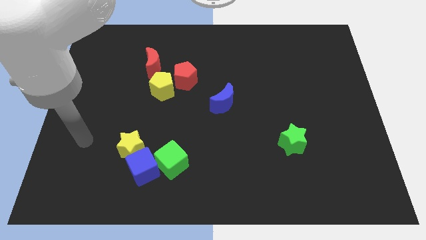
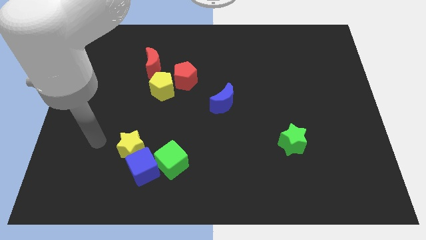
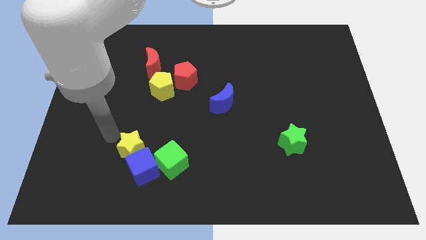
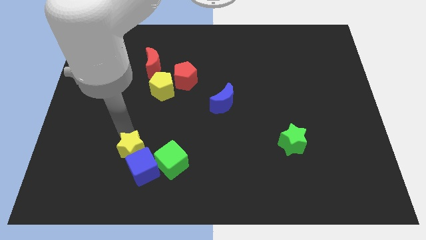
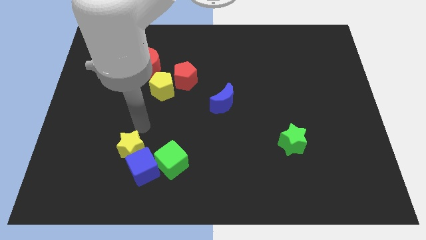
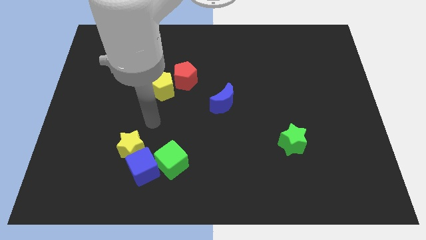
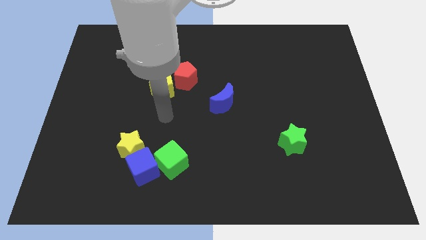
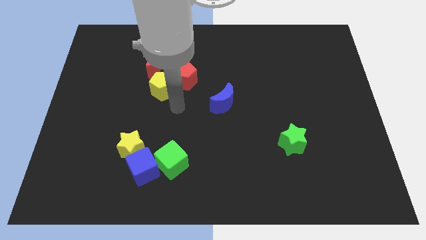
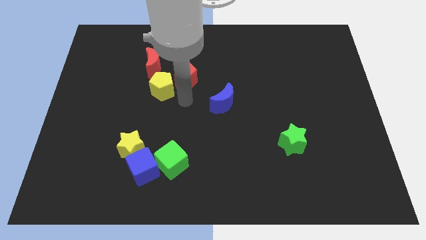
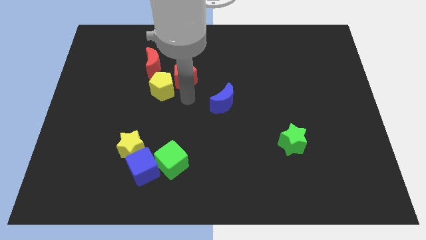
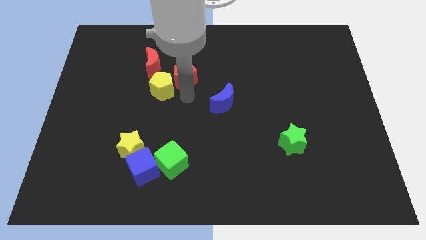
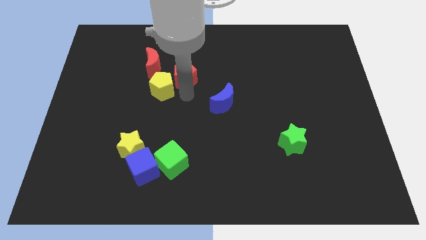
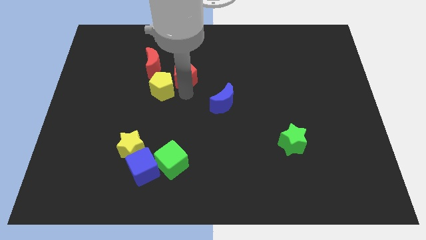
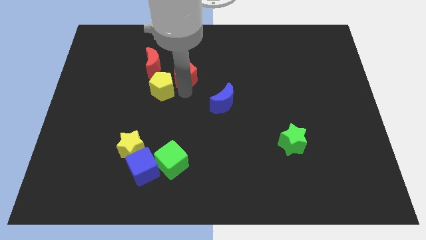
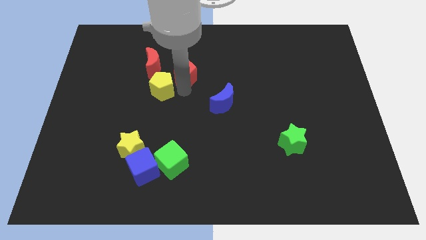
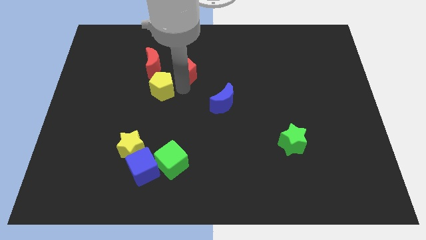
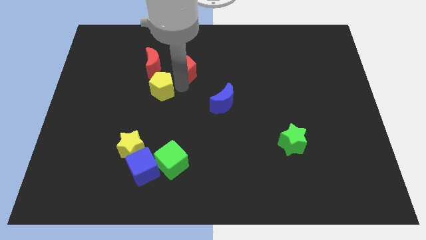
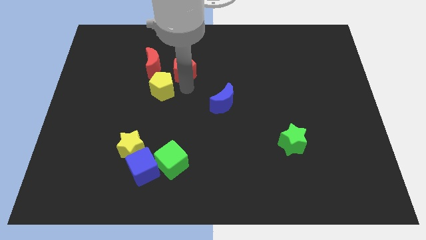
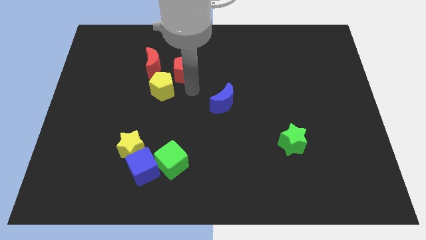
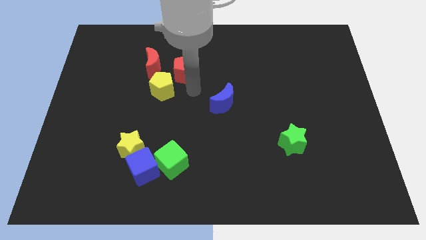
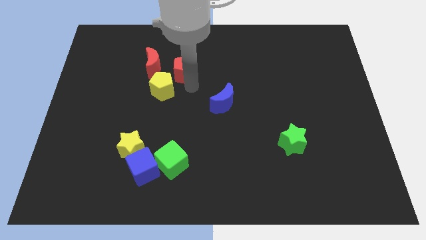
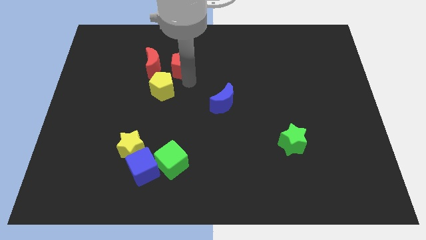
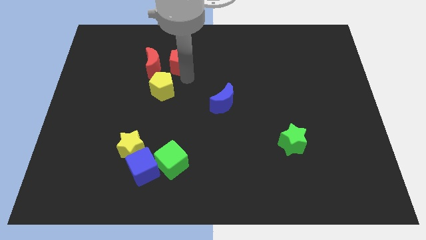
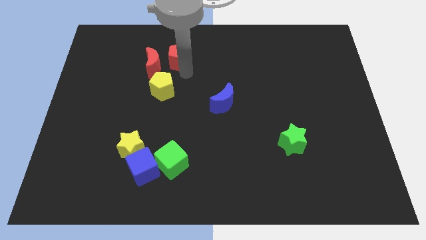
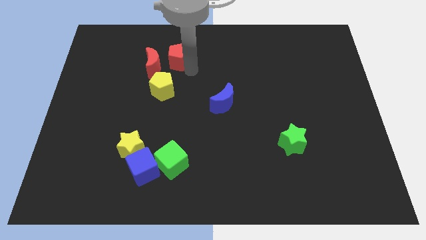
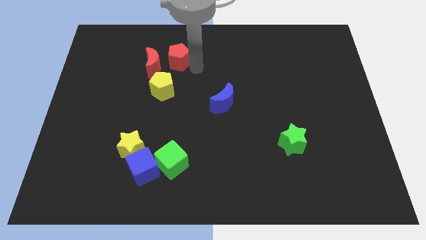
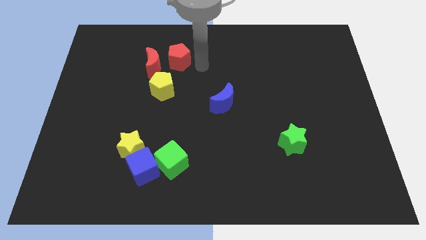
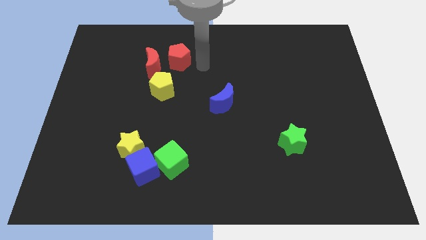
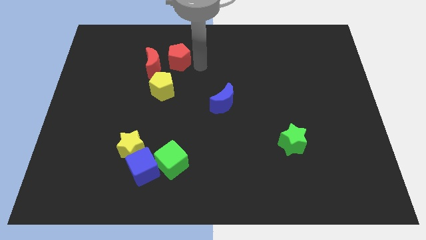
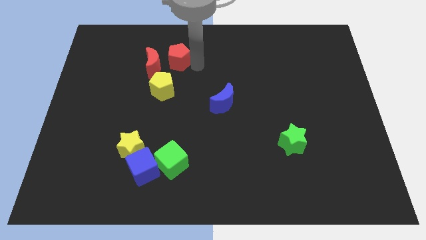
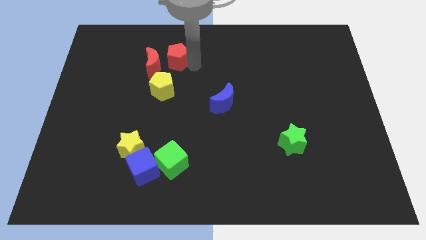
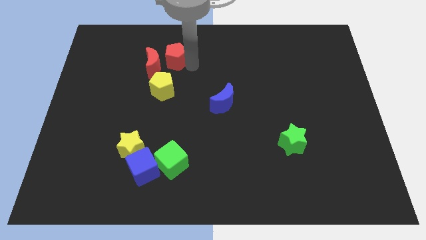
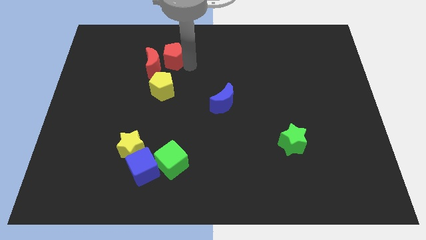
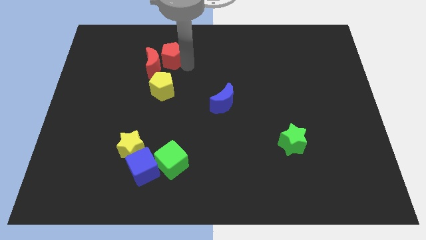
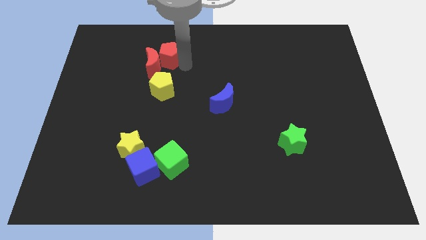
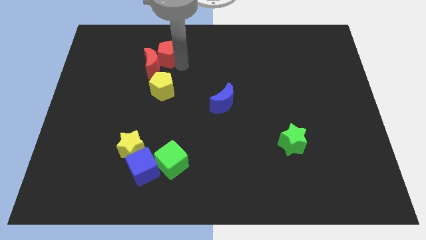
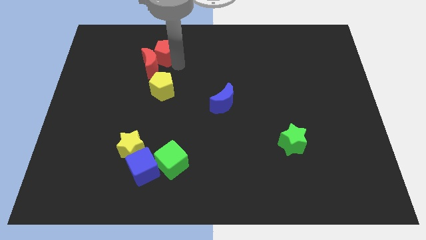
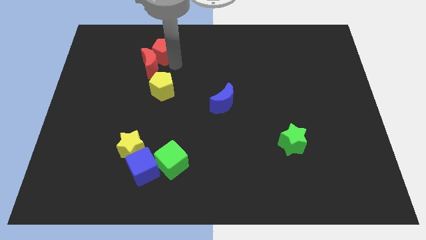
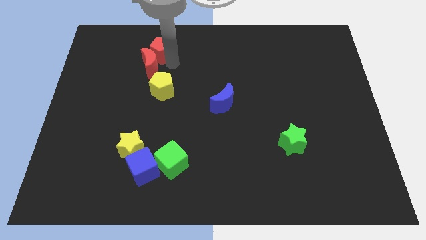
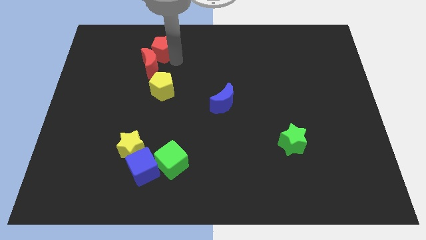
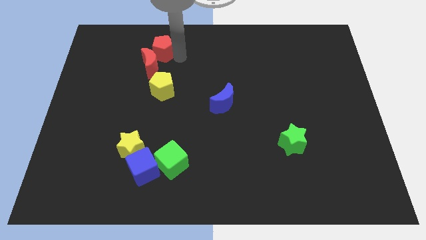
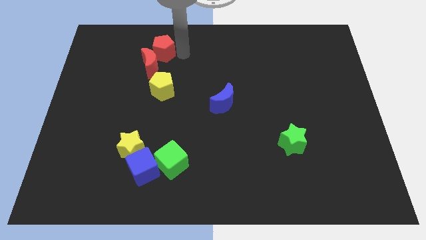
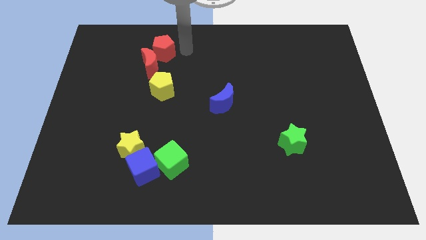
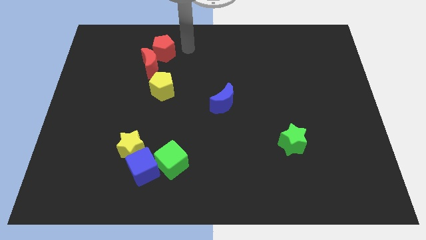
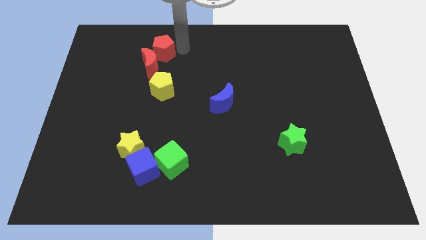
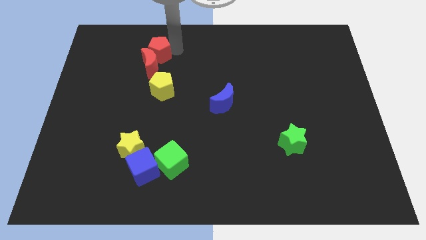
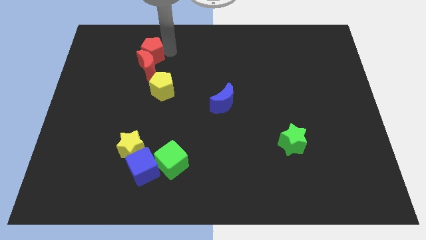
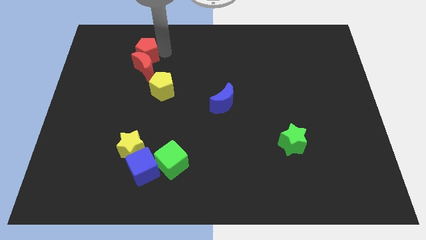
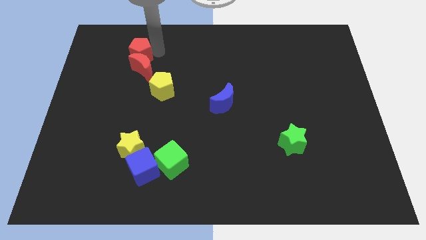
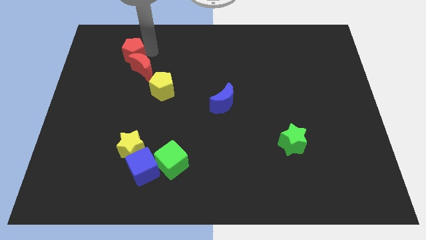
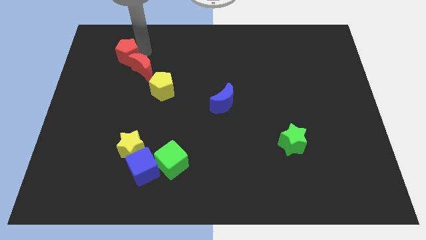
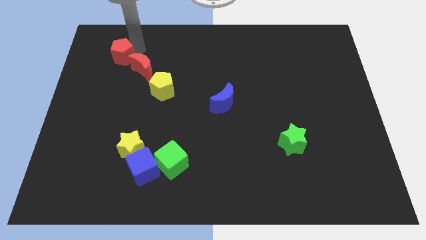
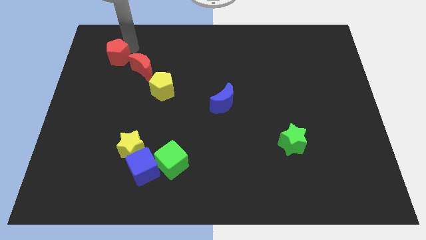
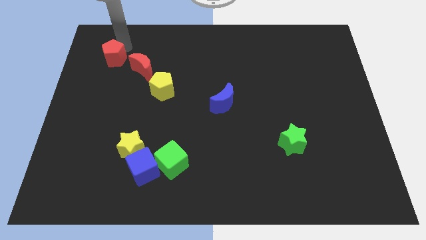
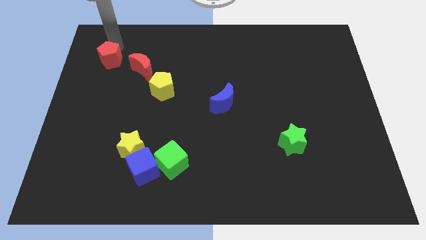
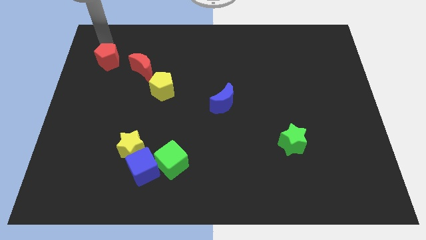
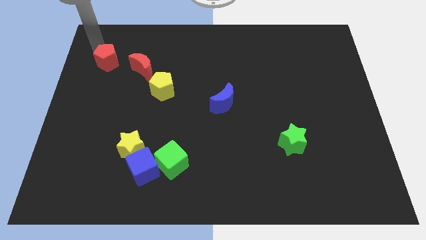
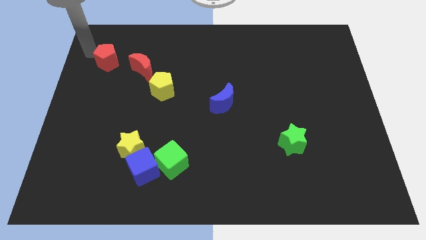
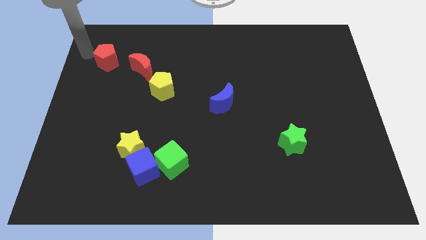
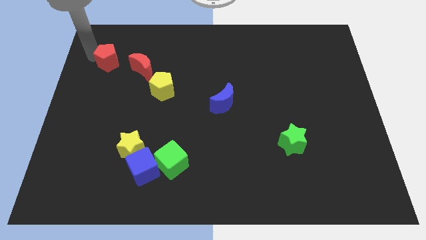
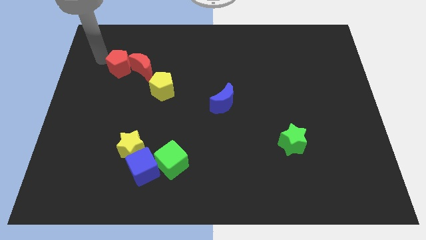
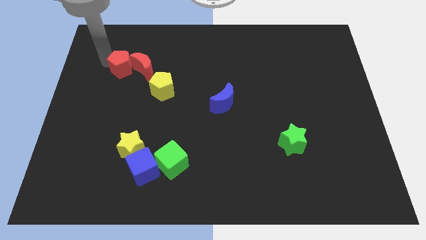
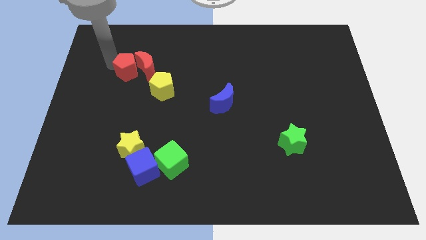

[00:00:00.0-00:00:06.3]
slide the red pentagon diagonally up and to the left of the yellow pentagon
